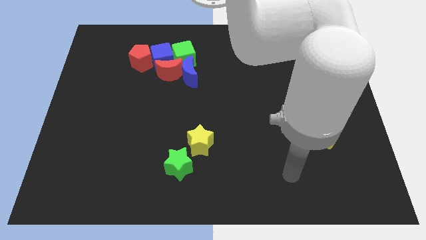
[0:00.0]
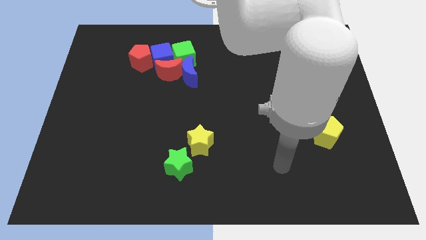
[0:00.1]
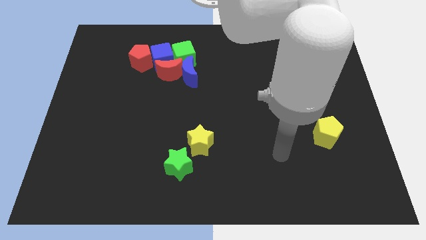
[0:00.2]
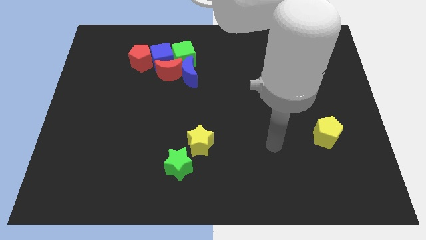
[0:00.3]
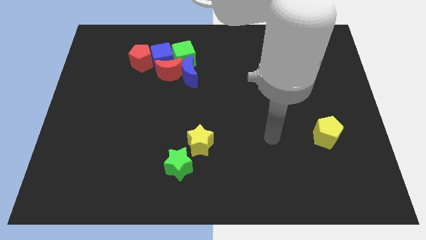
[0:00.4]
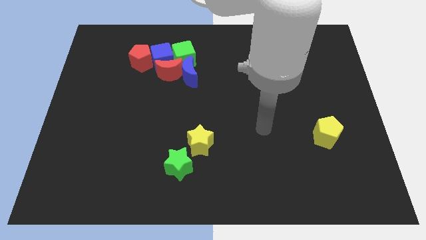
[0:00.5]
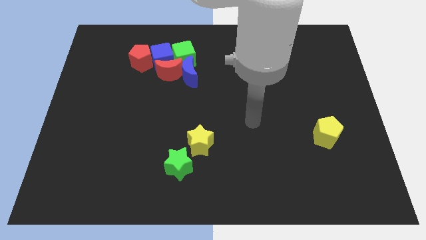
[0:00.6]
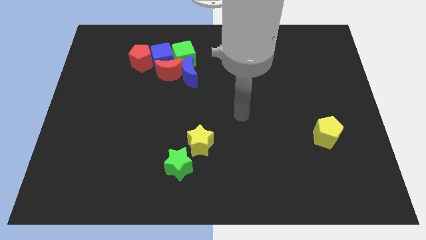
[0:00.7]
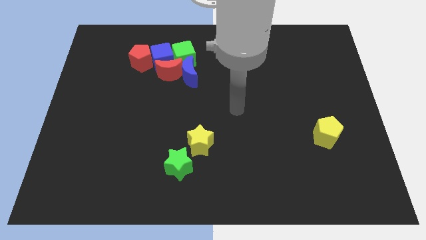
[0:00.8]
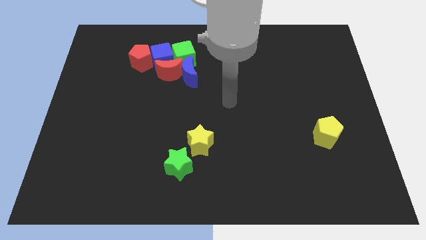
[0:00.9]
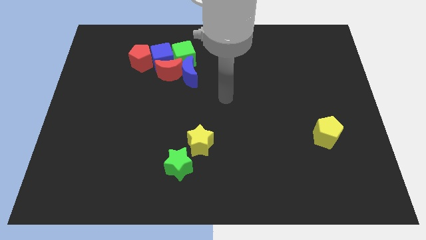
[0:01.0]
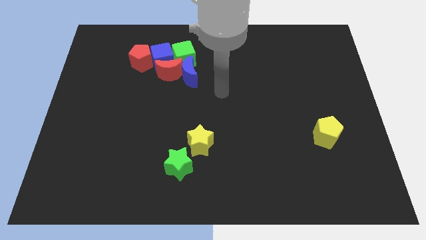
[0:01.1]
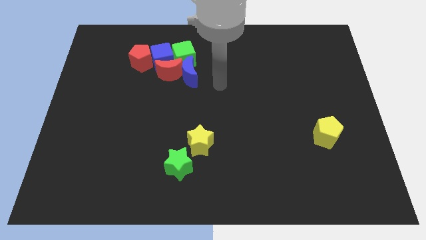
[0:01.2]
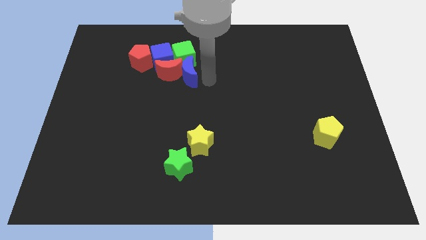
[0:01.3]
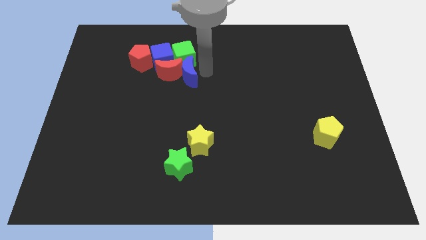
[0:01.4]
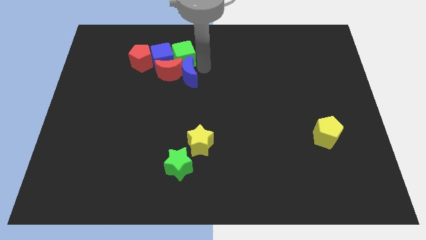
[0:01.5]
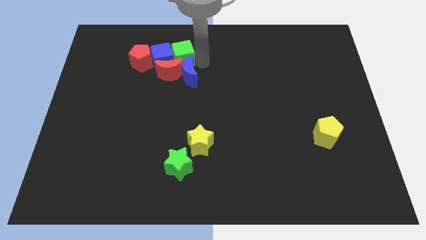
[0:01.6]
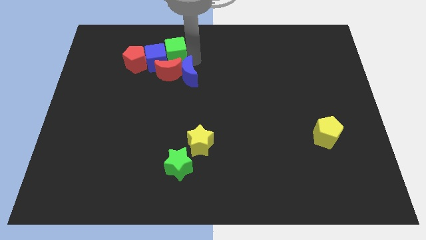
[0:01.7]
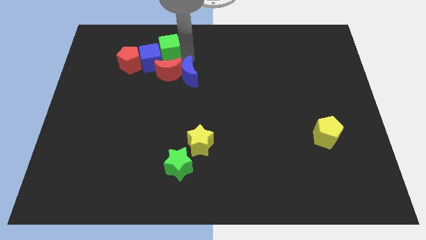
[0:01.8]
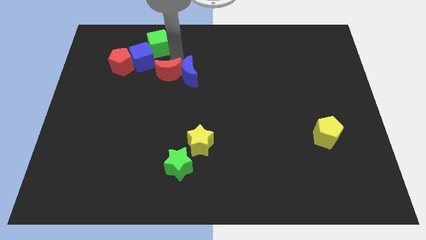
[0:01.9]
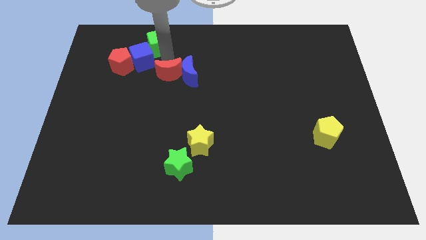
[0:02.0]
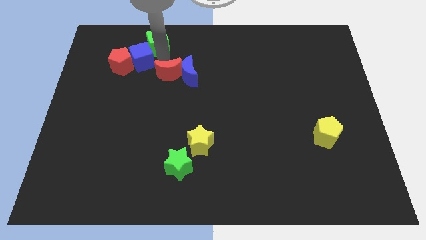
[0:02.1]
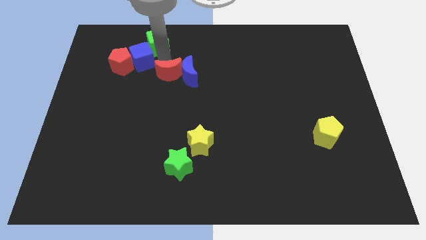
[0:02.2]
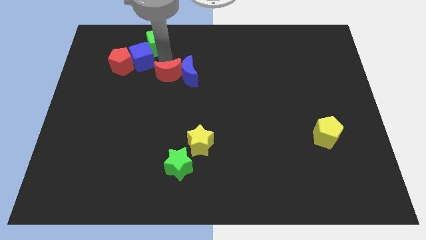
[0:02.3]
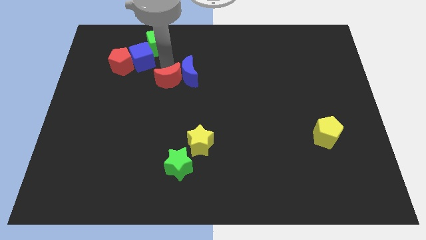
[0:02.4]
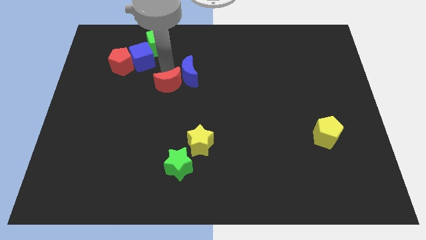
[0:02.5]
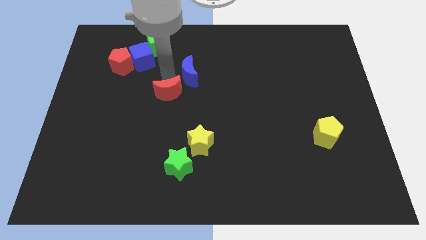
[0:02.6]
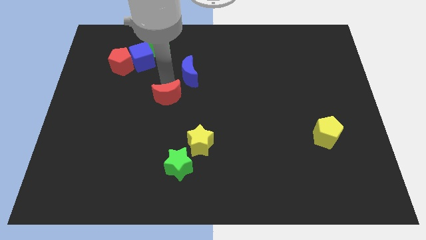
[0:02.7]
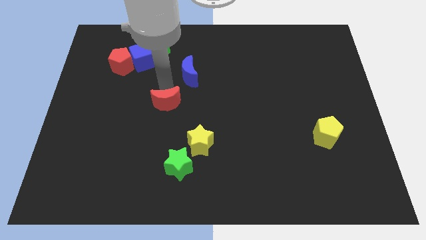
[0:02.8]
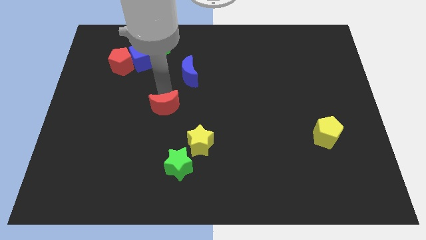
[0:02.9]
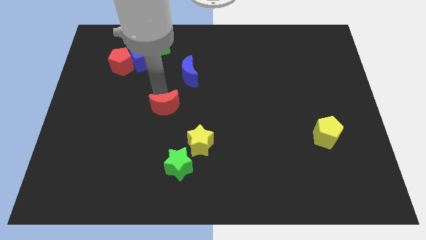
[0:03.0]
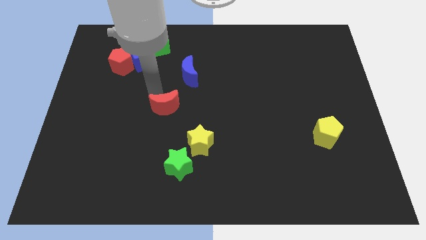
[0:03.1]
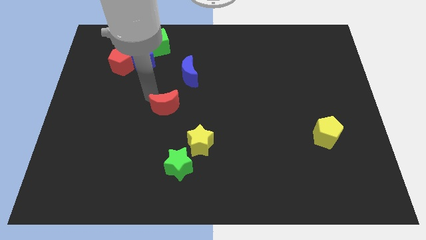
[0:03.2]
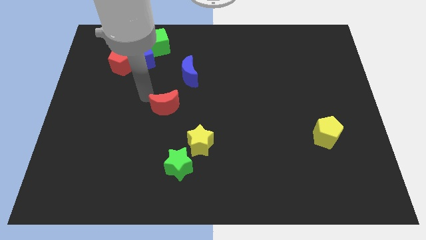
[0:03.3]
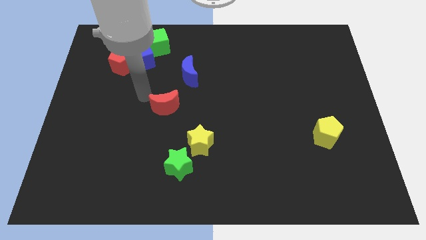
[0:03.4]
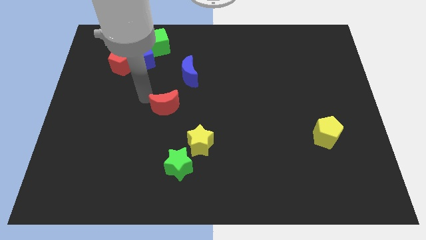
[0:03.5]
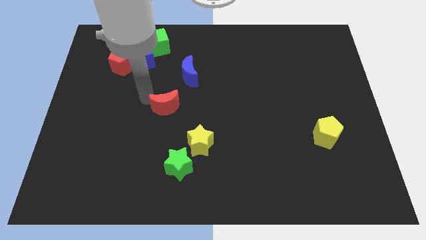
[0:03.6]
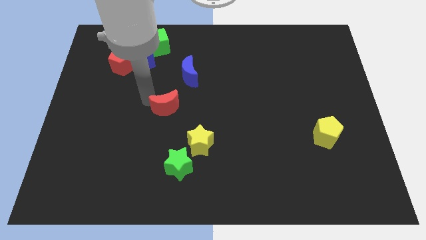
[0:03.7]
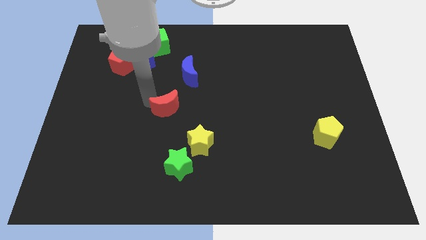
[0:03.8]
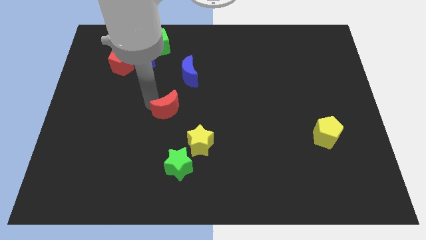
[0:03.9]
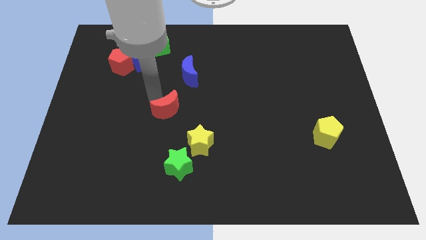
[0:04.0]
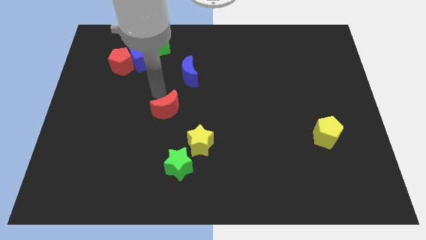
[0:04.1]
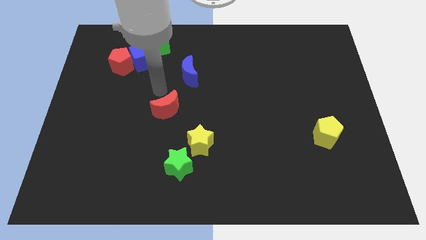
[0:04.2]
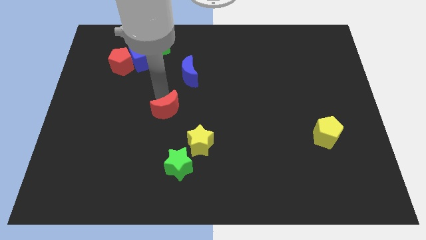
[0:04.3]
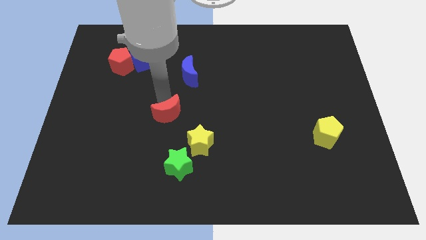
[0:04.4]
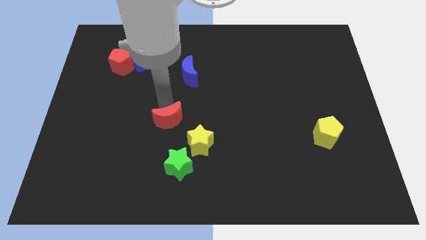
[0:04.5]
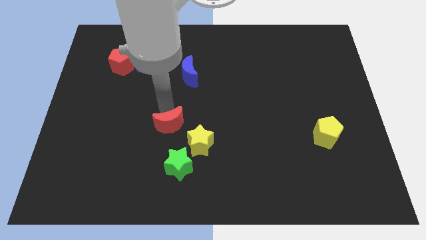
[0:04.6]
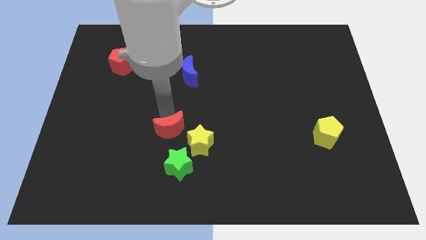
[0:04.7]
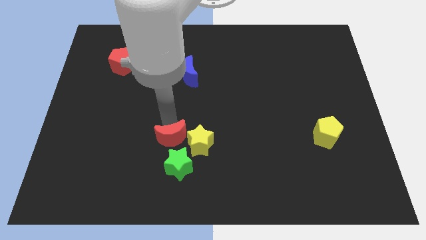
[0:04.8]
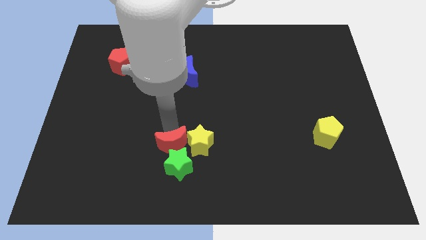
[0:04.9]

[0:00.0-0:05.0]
push the red moon next to the green star

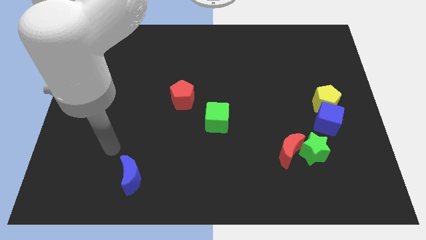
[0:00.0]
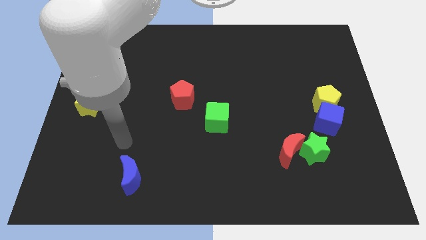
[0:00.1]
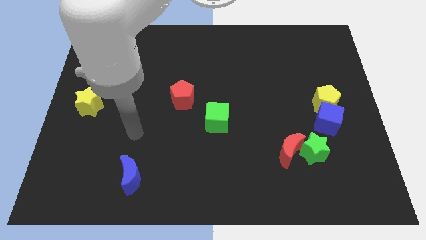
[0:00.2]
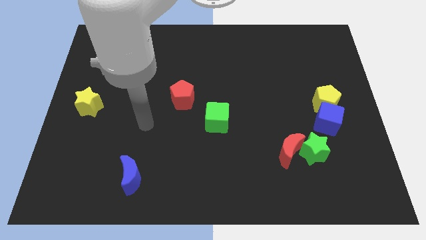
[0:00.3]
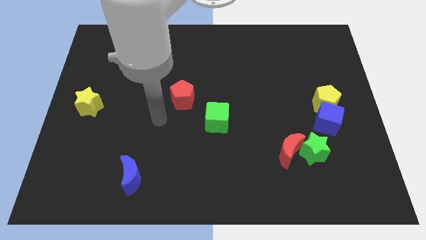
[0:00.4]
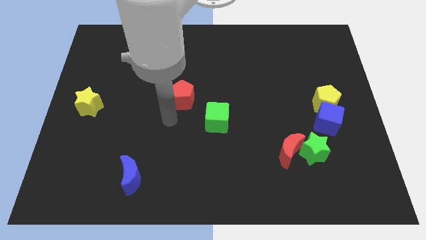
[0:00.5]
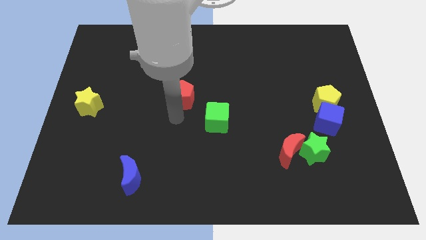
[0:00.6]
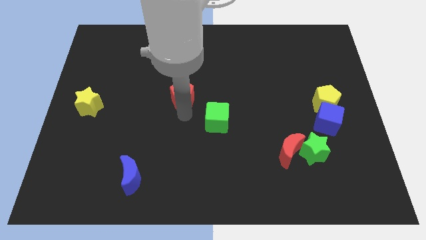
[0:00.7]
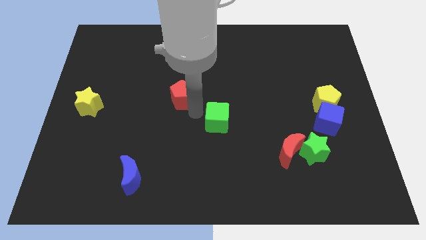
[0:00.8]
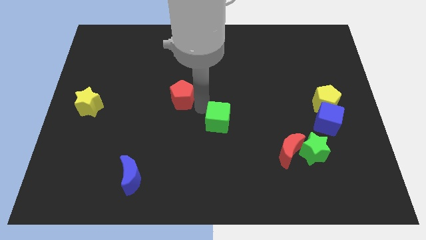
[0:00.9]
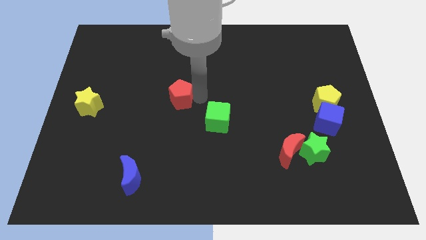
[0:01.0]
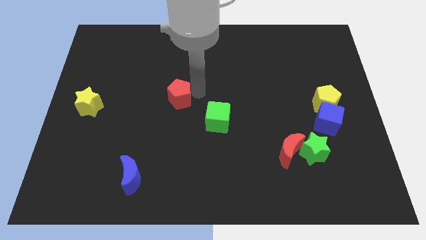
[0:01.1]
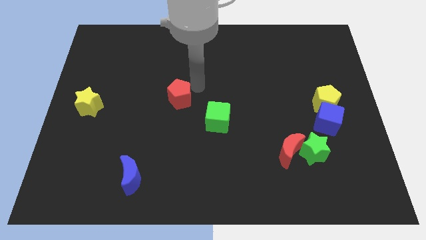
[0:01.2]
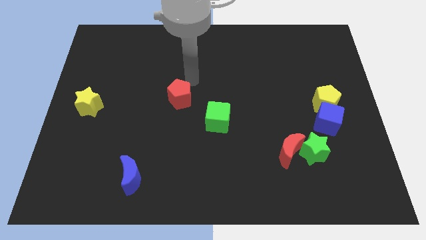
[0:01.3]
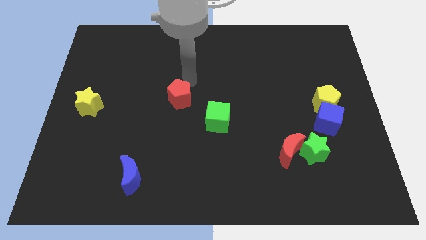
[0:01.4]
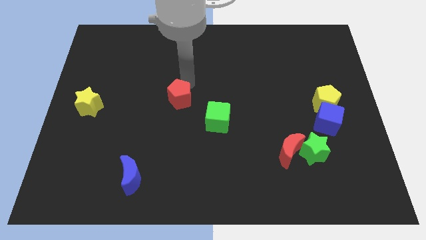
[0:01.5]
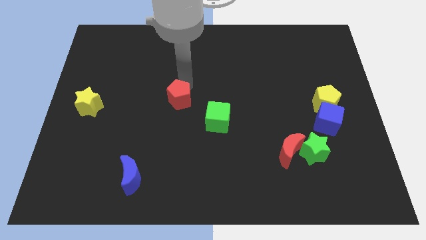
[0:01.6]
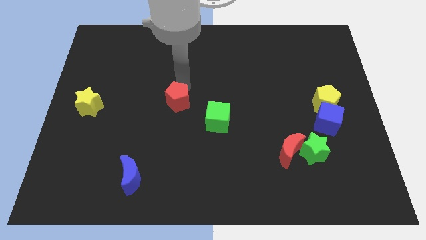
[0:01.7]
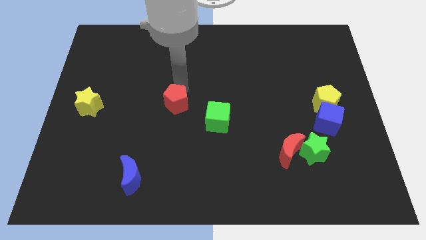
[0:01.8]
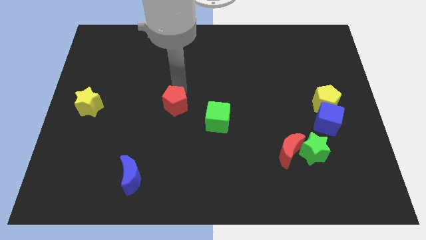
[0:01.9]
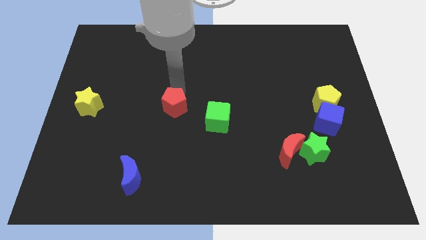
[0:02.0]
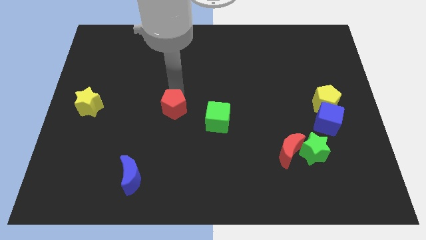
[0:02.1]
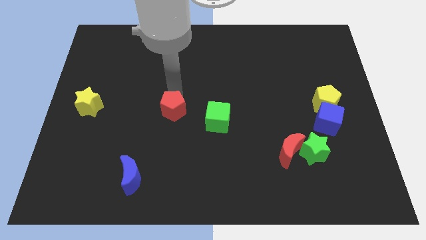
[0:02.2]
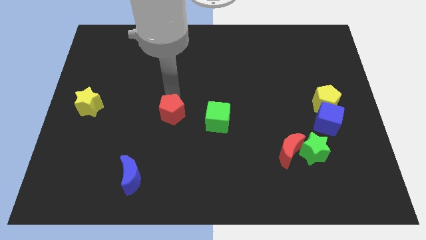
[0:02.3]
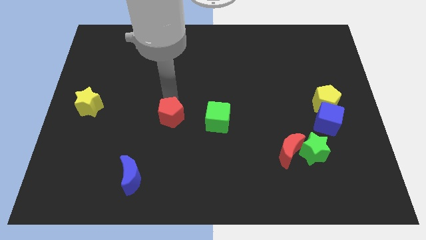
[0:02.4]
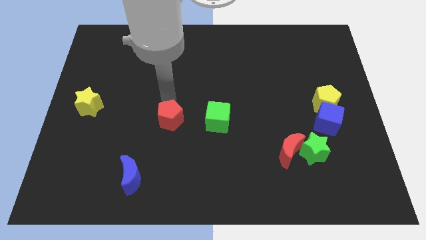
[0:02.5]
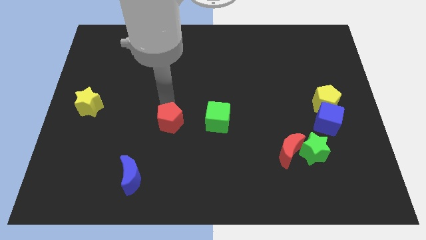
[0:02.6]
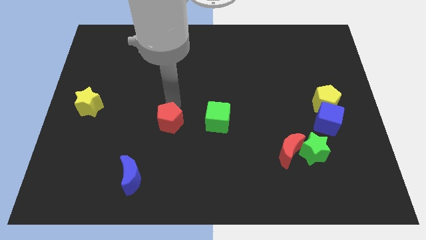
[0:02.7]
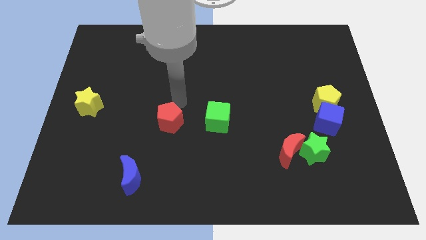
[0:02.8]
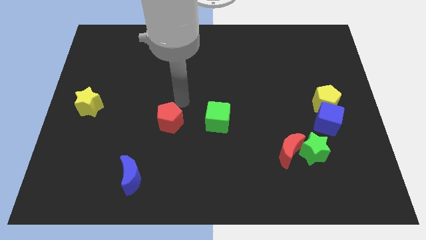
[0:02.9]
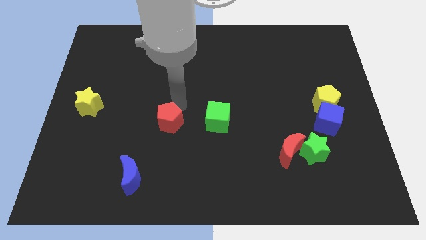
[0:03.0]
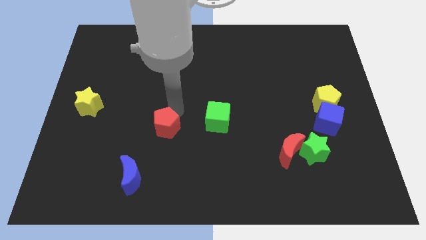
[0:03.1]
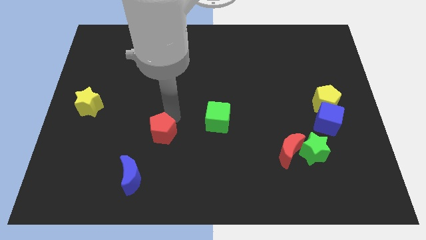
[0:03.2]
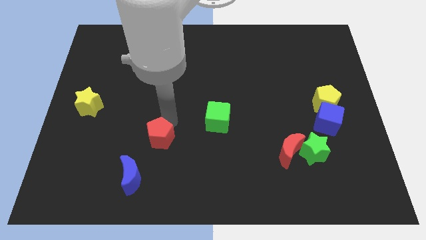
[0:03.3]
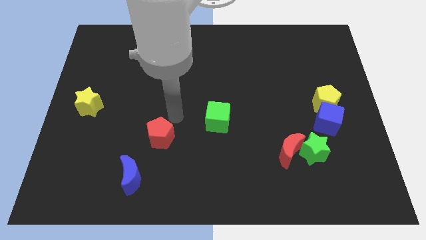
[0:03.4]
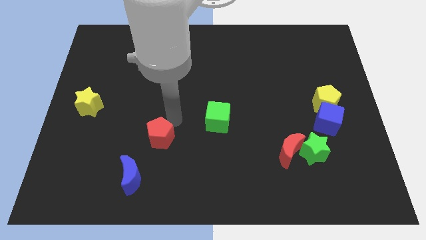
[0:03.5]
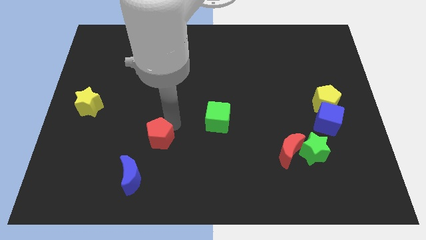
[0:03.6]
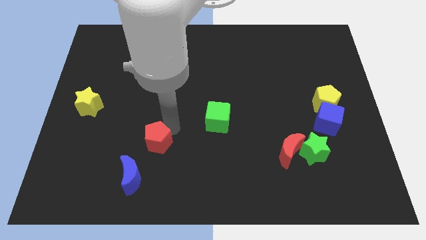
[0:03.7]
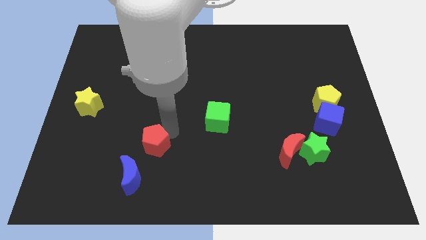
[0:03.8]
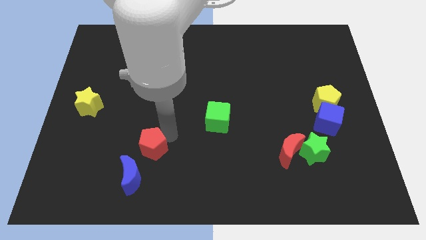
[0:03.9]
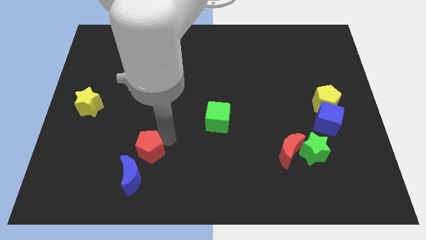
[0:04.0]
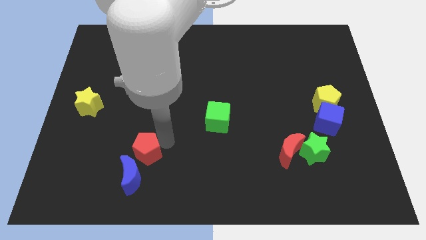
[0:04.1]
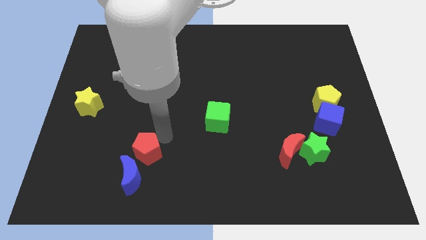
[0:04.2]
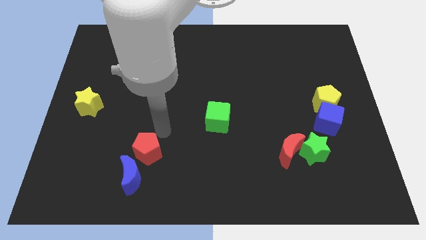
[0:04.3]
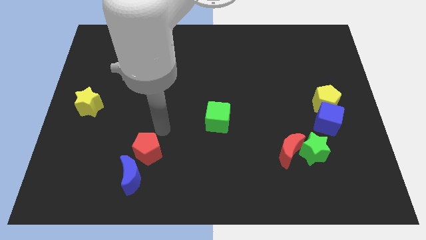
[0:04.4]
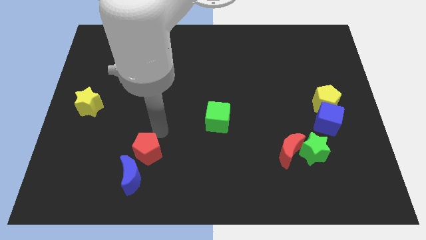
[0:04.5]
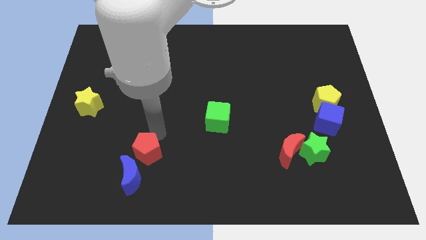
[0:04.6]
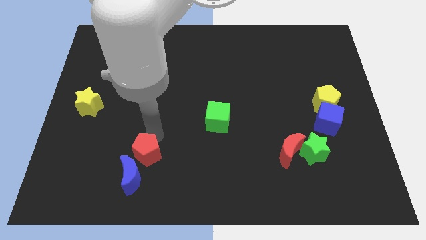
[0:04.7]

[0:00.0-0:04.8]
move the red pentagon close to the blue moon
